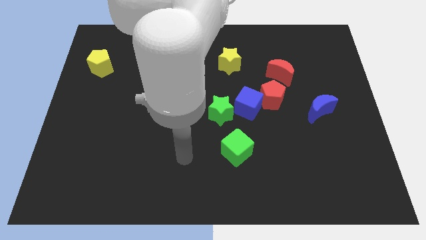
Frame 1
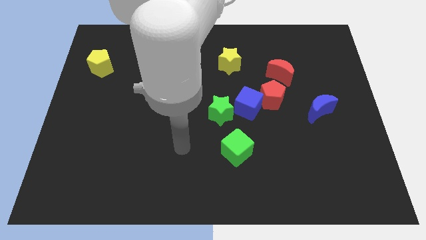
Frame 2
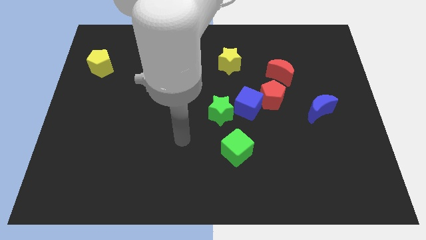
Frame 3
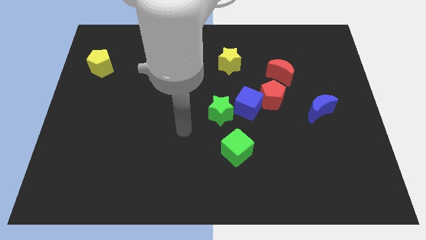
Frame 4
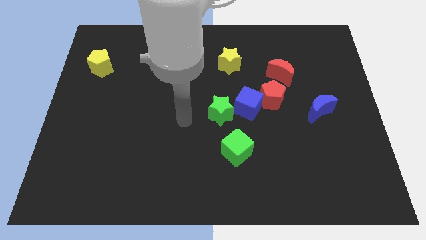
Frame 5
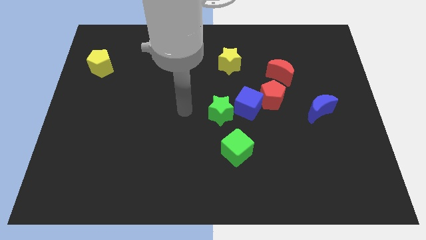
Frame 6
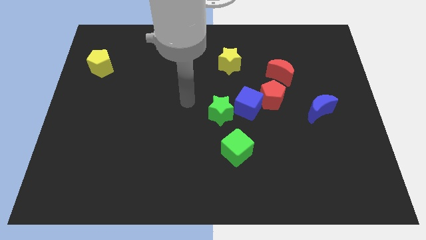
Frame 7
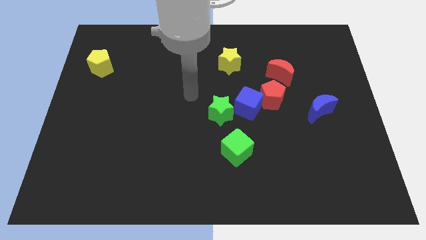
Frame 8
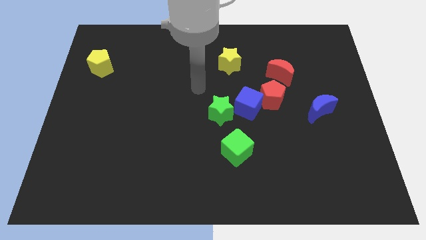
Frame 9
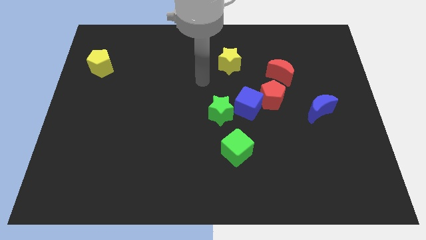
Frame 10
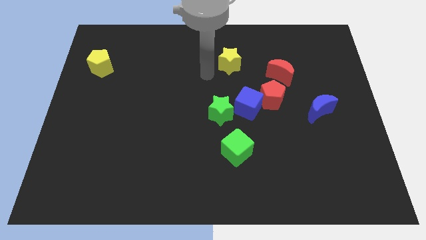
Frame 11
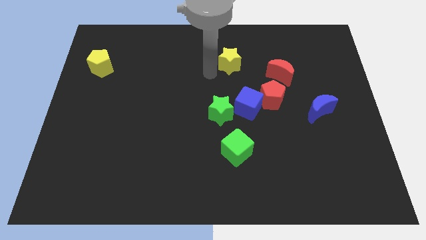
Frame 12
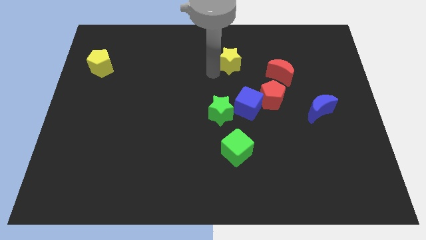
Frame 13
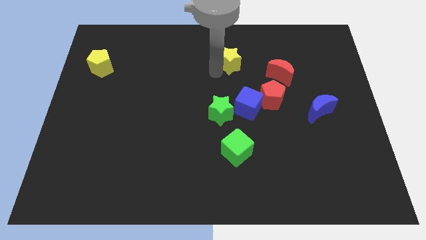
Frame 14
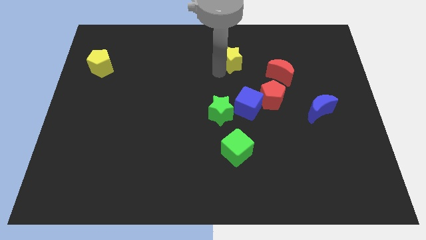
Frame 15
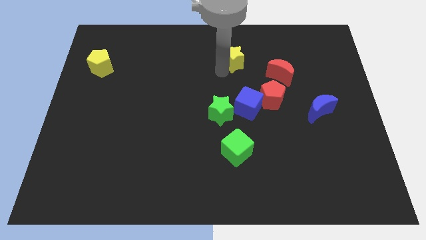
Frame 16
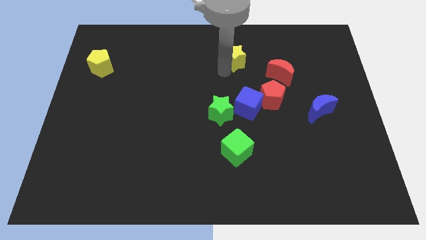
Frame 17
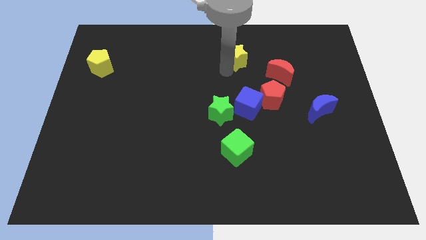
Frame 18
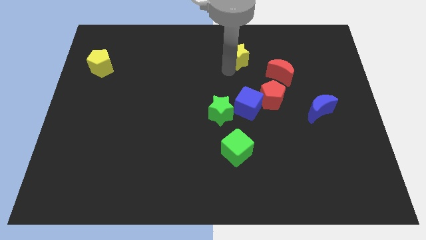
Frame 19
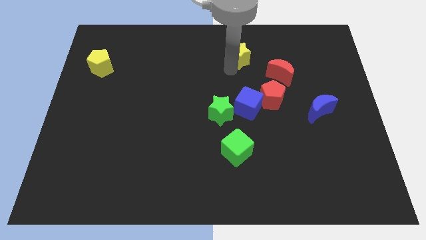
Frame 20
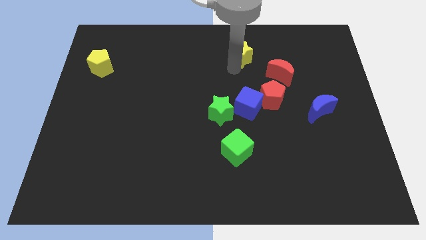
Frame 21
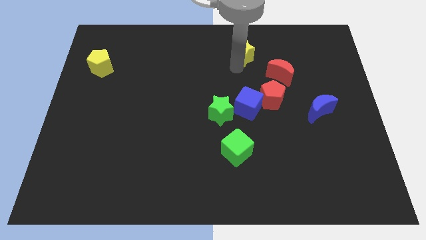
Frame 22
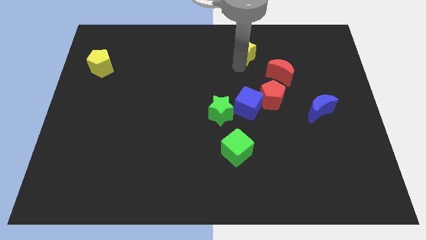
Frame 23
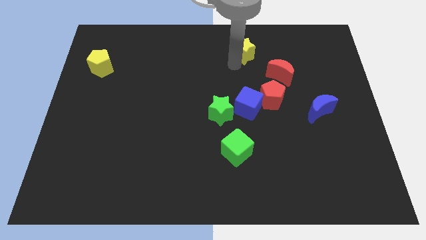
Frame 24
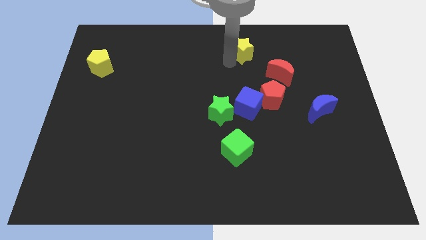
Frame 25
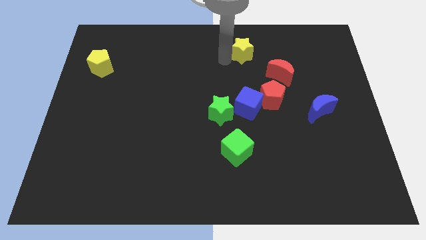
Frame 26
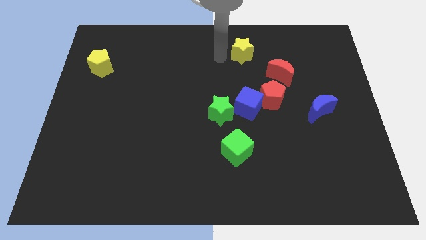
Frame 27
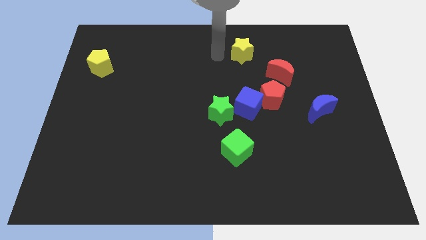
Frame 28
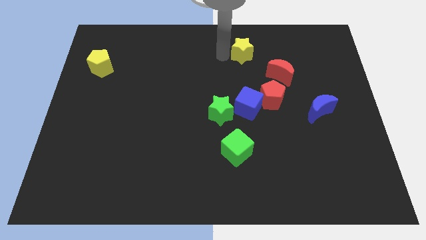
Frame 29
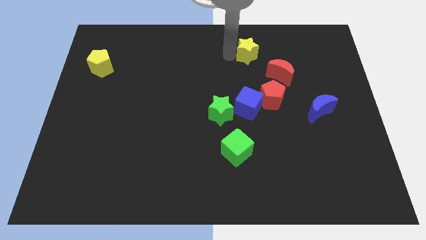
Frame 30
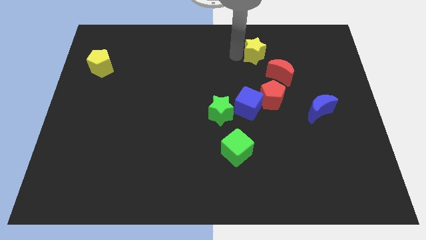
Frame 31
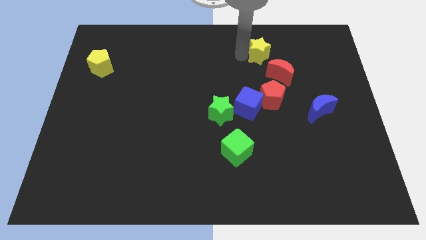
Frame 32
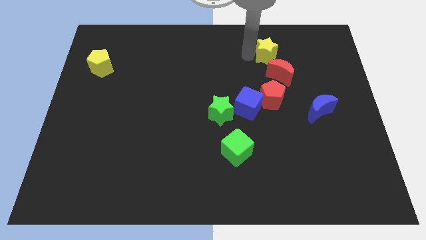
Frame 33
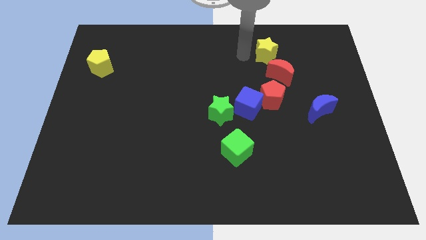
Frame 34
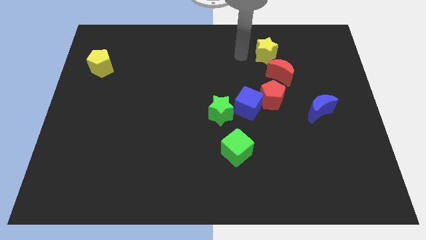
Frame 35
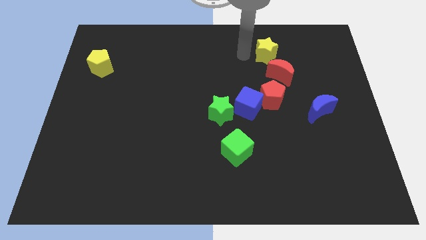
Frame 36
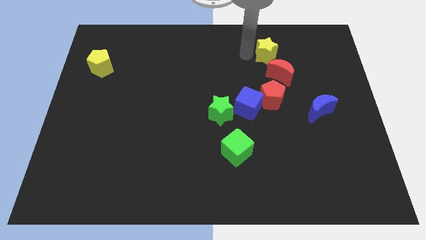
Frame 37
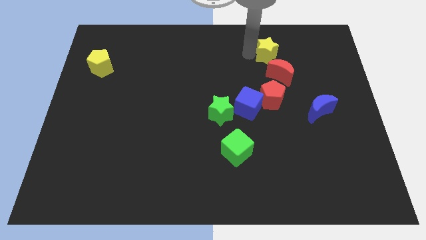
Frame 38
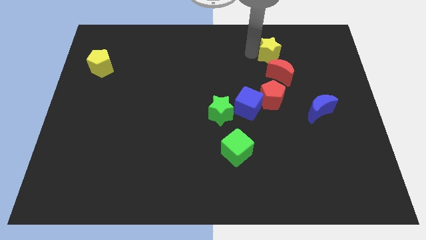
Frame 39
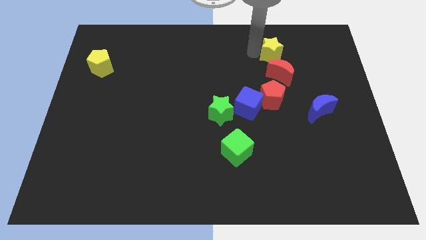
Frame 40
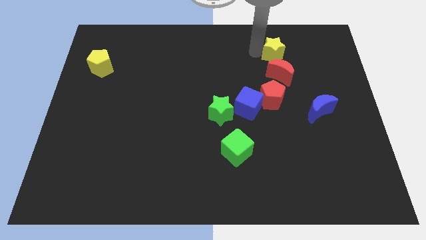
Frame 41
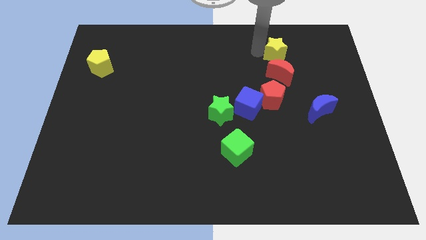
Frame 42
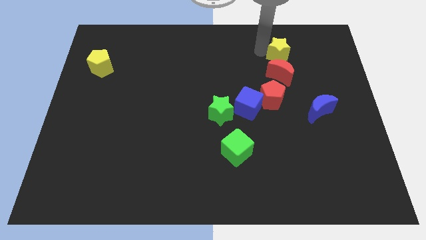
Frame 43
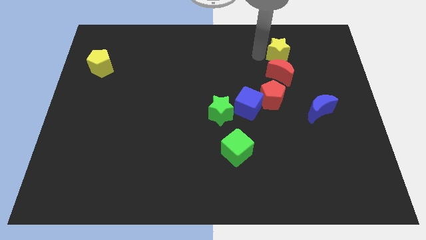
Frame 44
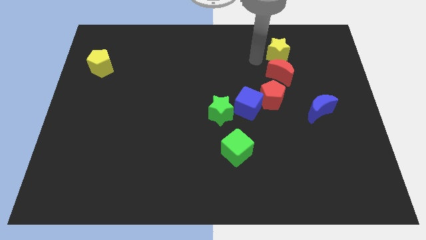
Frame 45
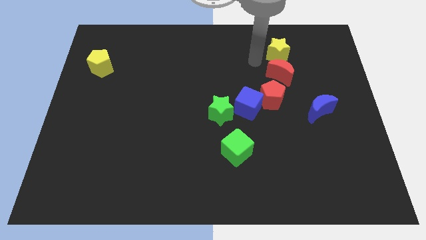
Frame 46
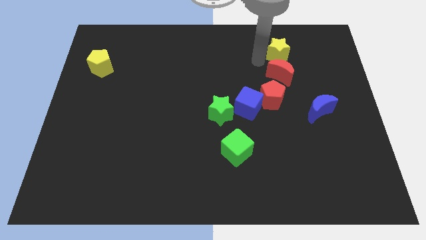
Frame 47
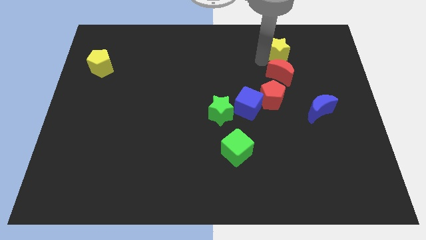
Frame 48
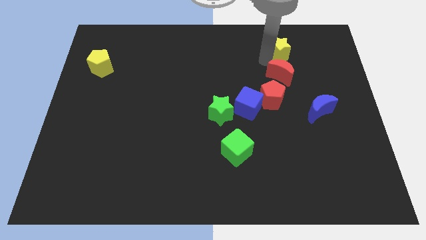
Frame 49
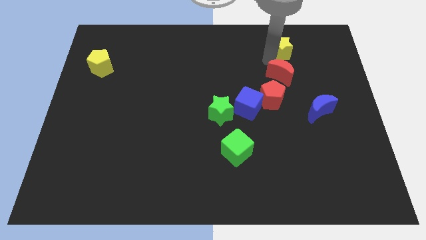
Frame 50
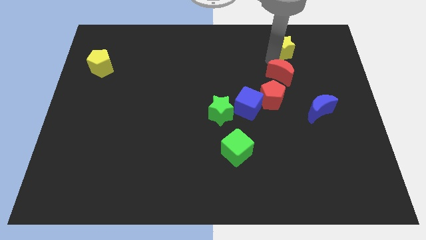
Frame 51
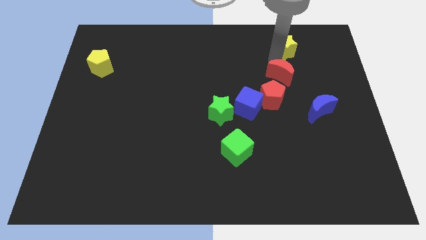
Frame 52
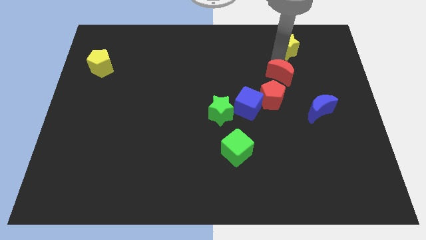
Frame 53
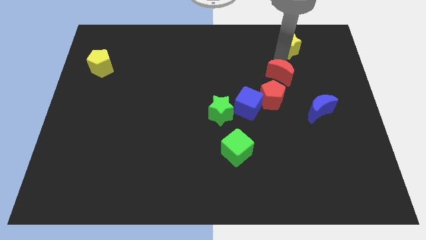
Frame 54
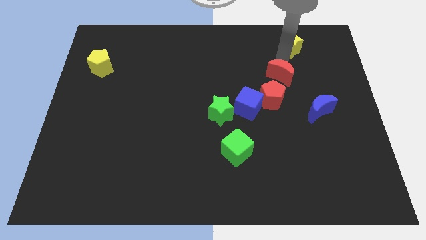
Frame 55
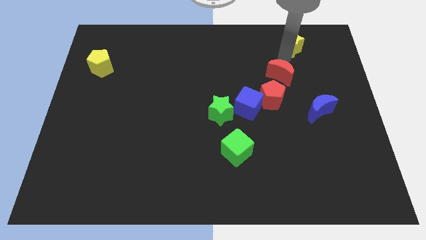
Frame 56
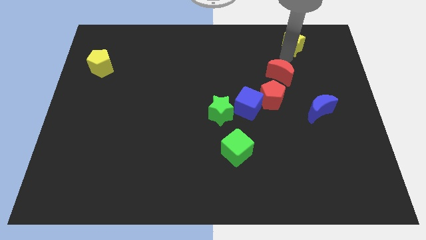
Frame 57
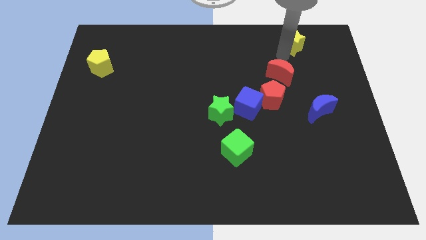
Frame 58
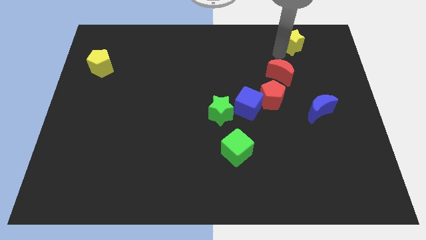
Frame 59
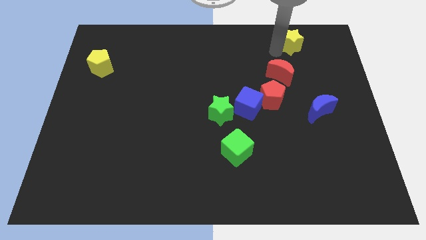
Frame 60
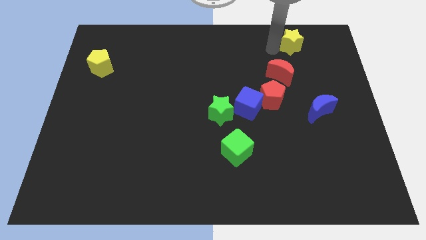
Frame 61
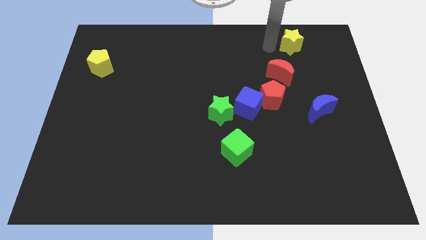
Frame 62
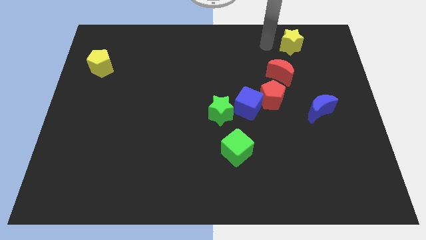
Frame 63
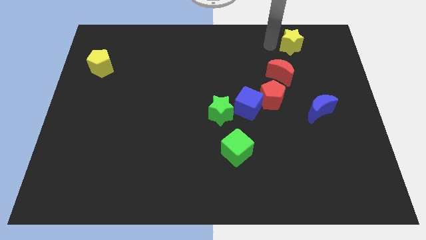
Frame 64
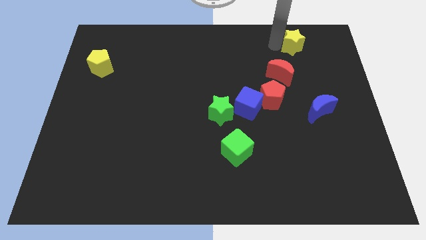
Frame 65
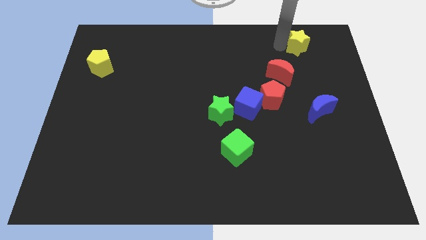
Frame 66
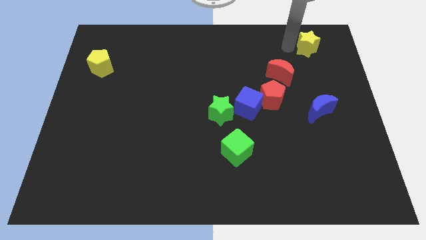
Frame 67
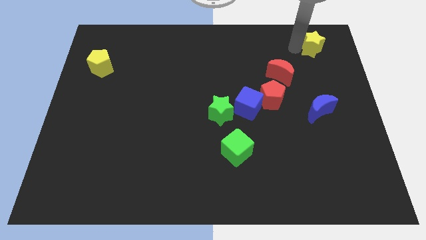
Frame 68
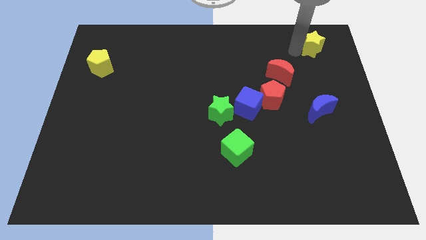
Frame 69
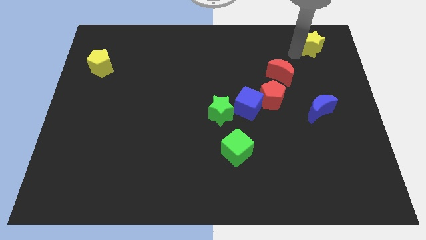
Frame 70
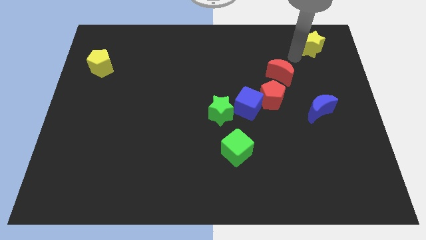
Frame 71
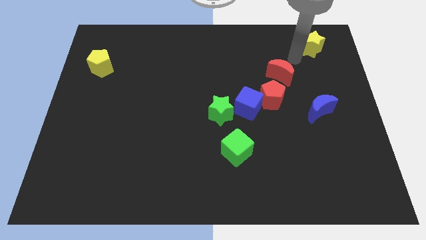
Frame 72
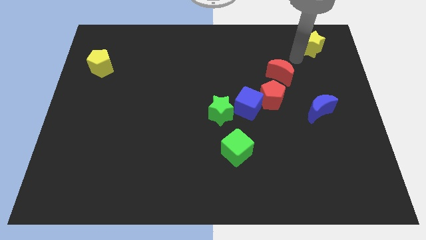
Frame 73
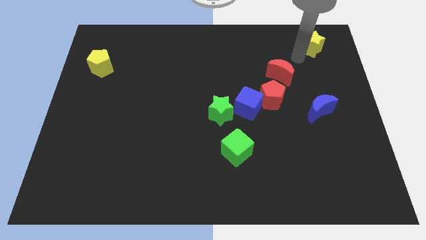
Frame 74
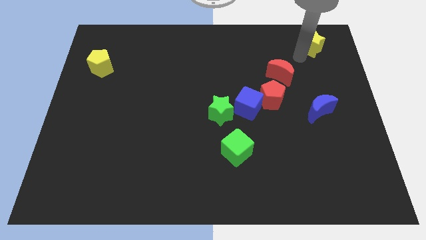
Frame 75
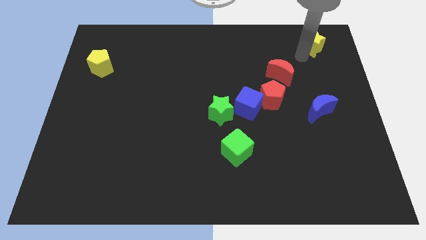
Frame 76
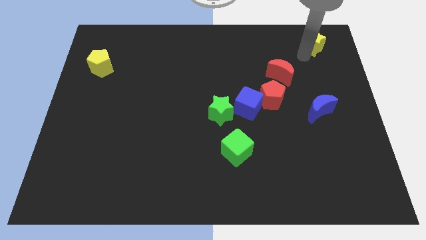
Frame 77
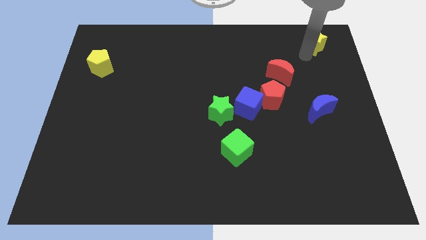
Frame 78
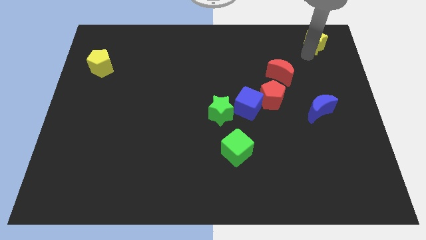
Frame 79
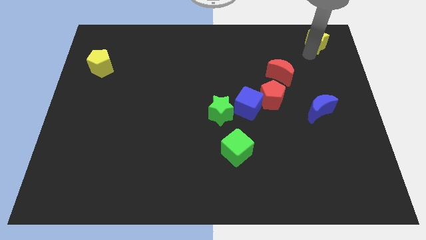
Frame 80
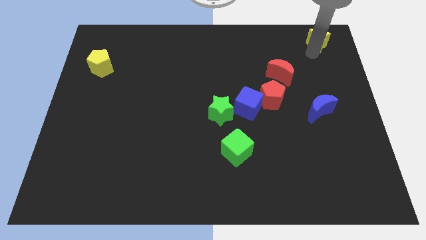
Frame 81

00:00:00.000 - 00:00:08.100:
move the yellow star to the top right of the board
